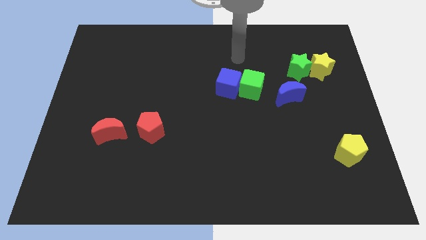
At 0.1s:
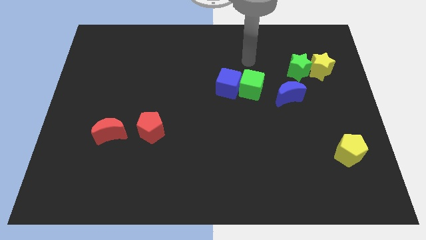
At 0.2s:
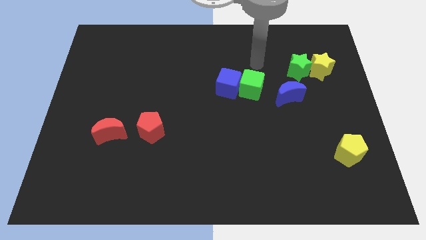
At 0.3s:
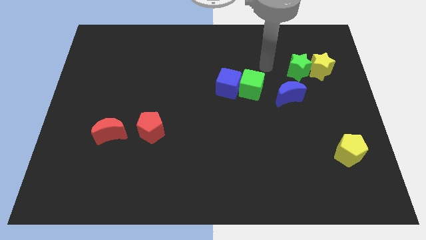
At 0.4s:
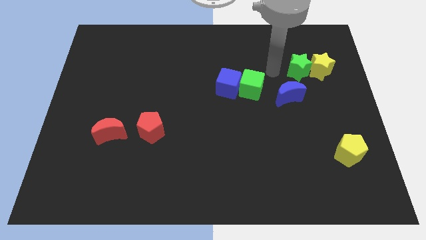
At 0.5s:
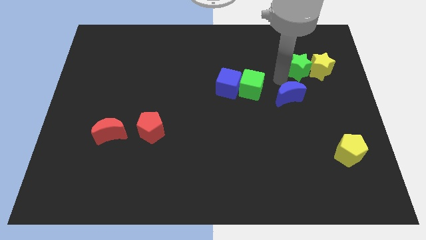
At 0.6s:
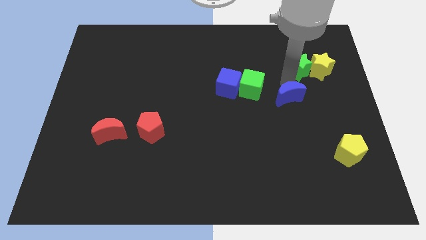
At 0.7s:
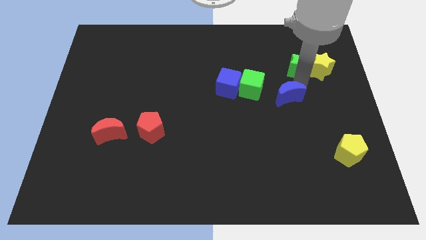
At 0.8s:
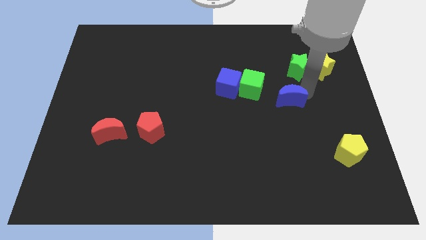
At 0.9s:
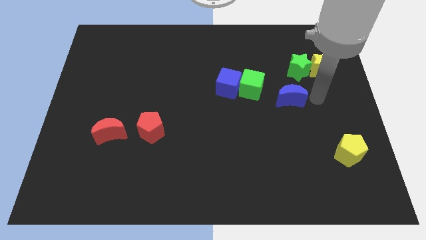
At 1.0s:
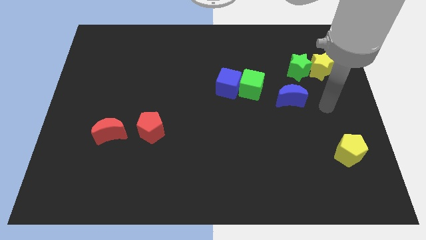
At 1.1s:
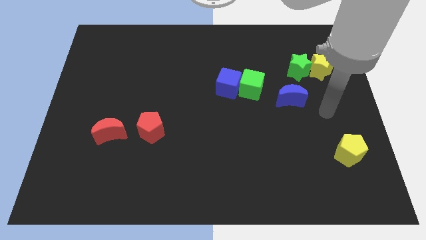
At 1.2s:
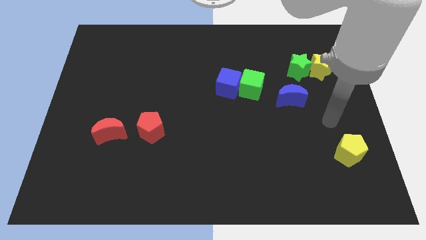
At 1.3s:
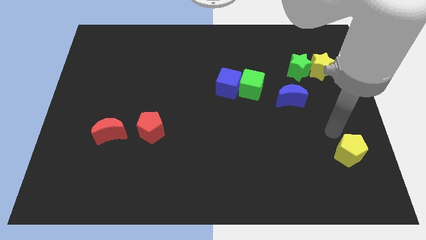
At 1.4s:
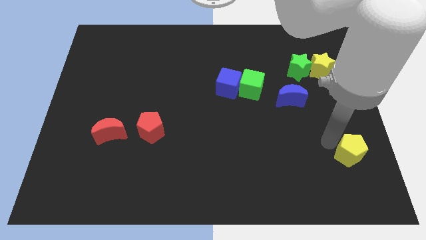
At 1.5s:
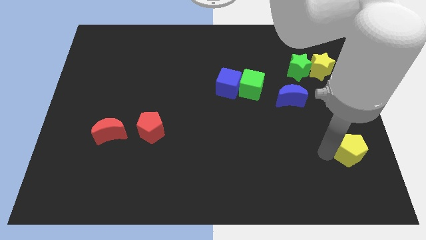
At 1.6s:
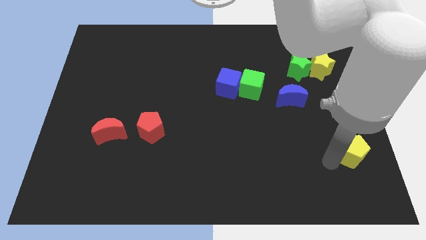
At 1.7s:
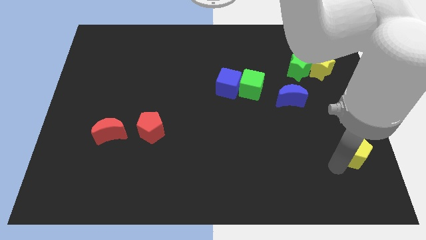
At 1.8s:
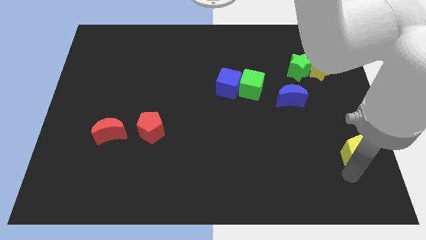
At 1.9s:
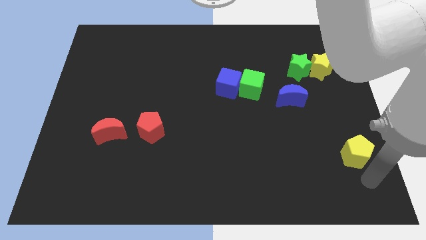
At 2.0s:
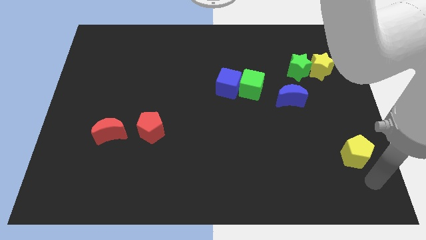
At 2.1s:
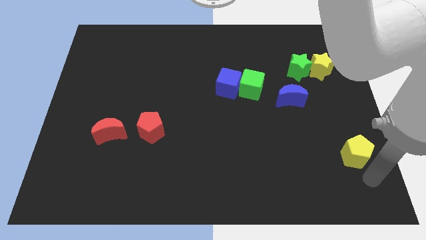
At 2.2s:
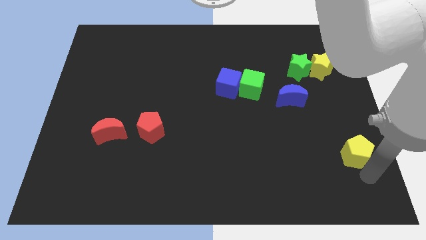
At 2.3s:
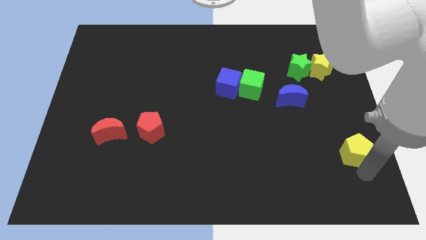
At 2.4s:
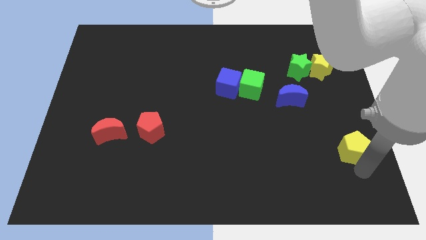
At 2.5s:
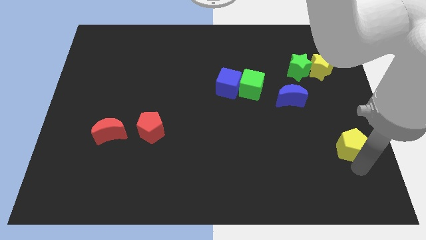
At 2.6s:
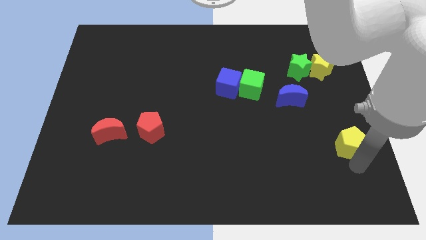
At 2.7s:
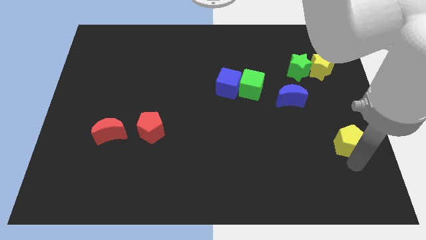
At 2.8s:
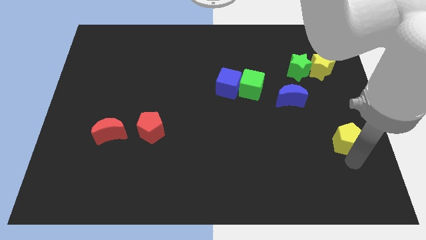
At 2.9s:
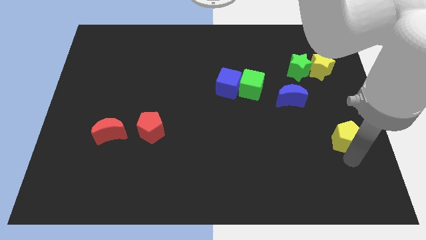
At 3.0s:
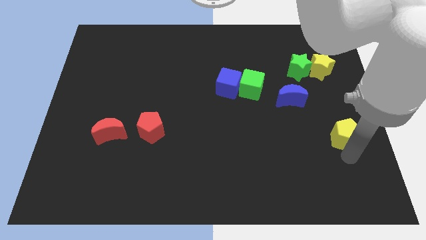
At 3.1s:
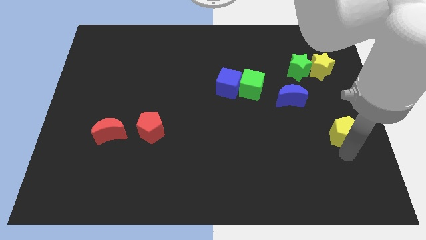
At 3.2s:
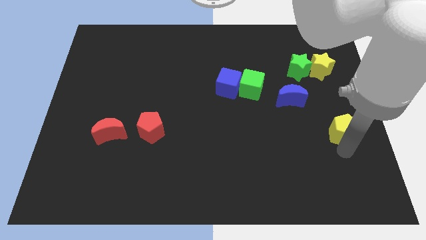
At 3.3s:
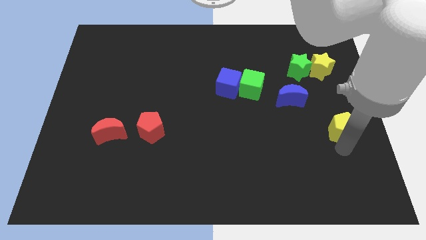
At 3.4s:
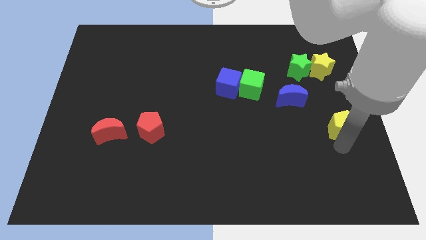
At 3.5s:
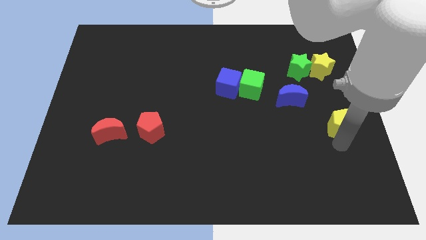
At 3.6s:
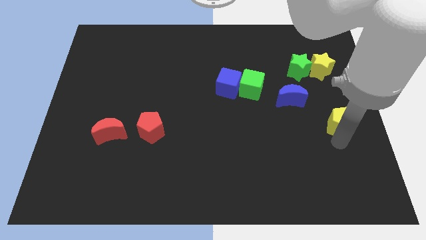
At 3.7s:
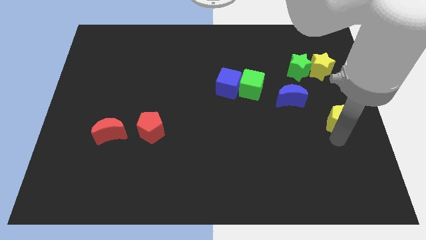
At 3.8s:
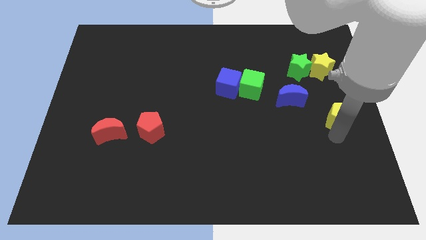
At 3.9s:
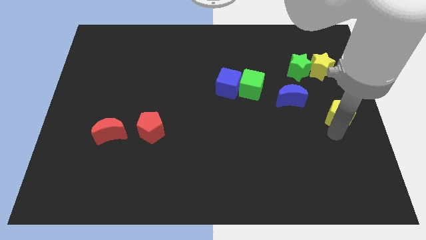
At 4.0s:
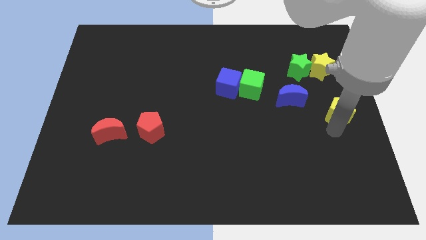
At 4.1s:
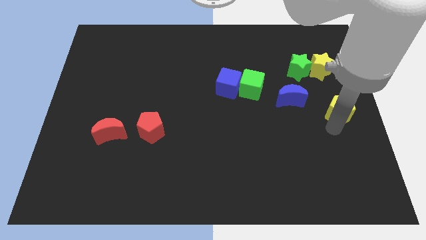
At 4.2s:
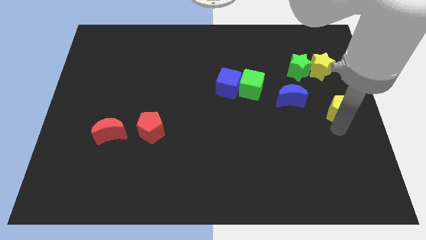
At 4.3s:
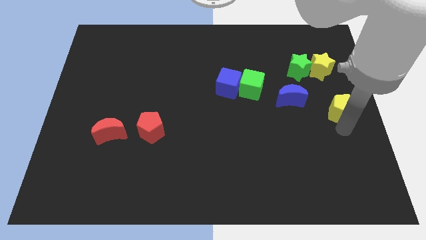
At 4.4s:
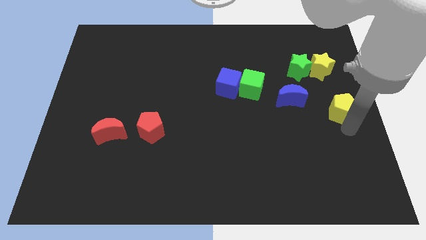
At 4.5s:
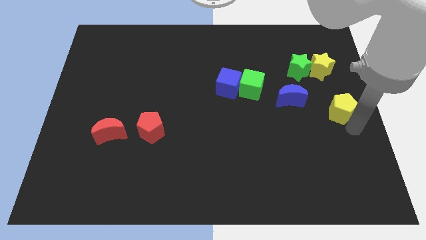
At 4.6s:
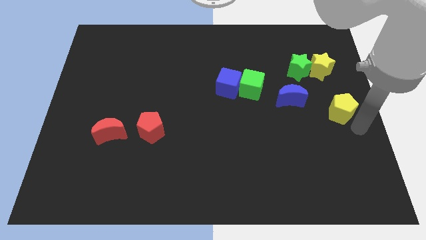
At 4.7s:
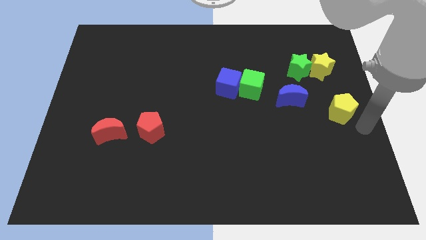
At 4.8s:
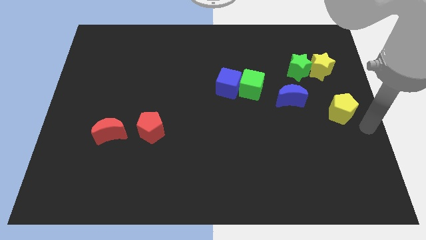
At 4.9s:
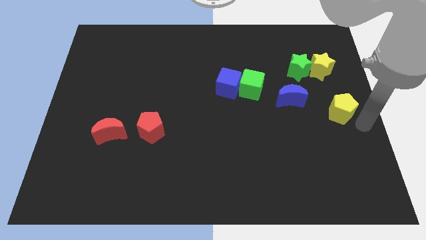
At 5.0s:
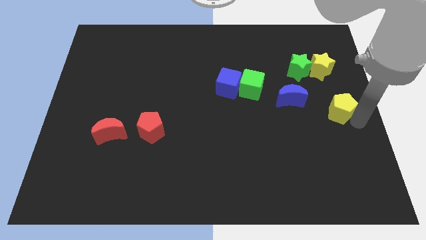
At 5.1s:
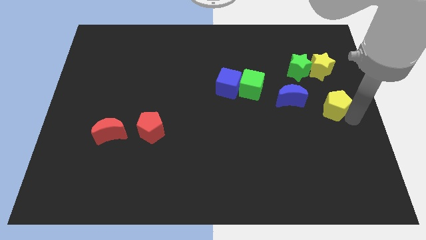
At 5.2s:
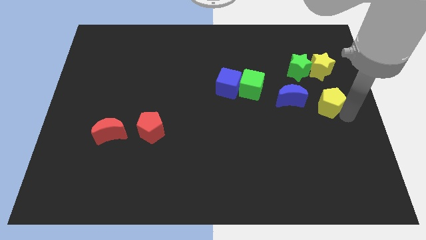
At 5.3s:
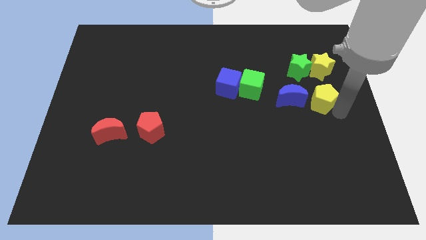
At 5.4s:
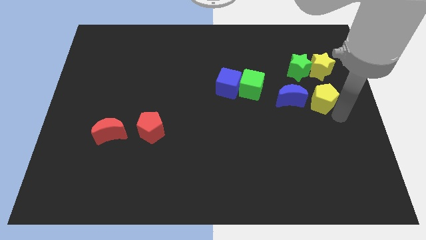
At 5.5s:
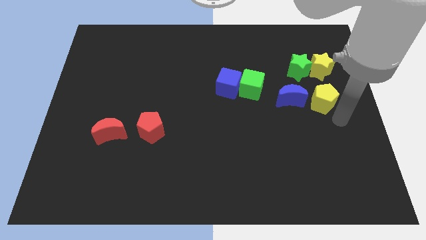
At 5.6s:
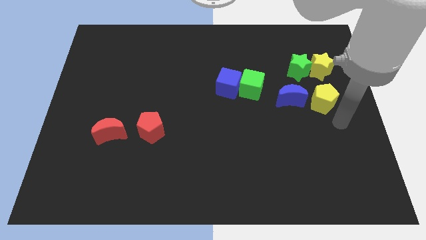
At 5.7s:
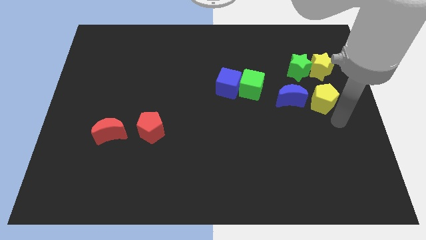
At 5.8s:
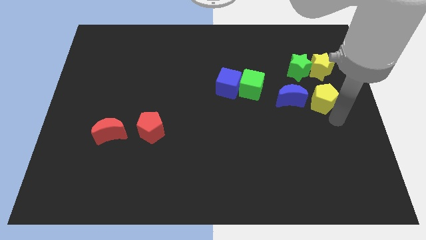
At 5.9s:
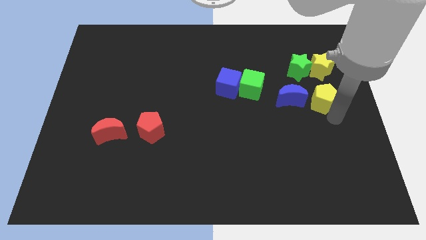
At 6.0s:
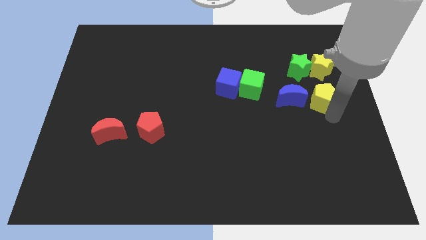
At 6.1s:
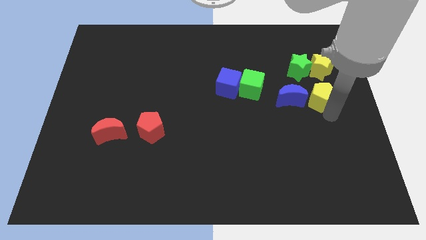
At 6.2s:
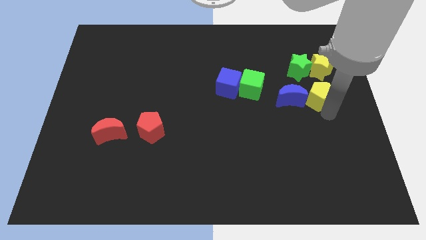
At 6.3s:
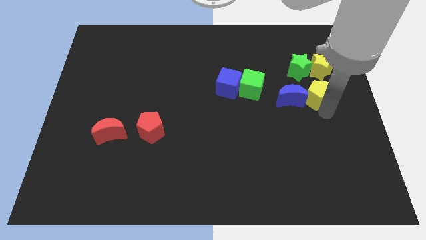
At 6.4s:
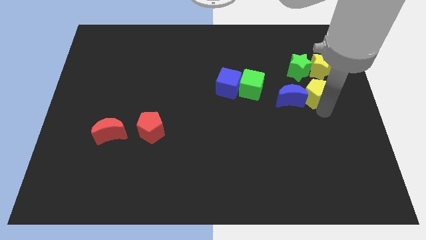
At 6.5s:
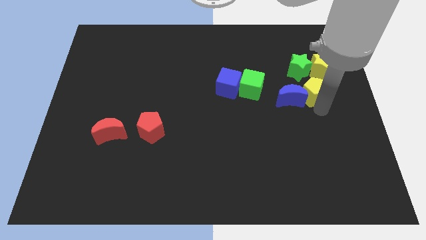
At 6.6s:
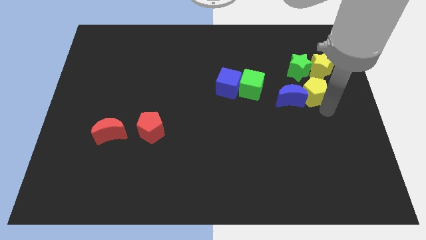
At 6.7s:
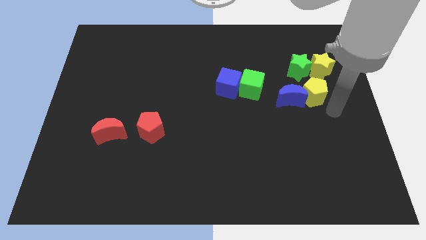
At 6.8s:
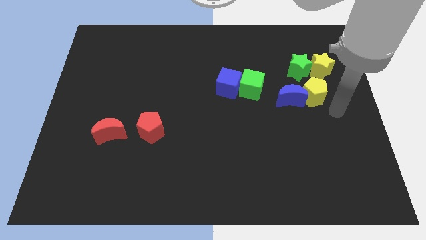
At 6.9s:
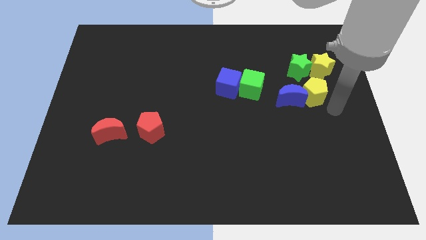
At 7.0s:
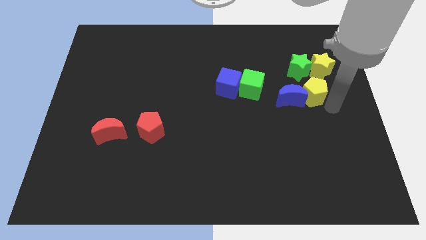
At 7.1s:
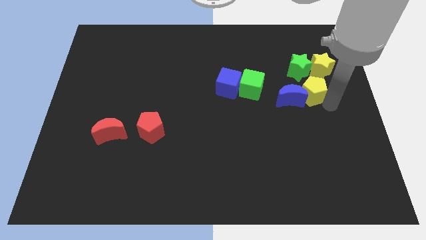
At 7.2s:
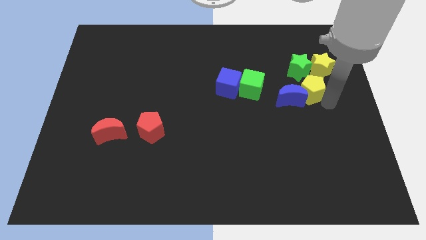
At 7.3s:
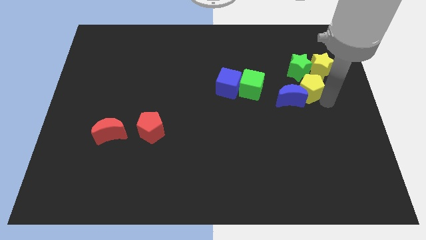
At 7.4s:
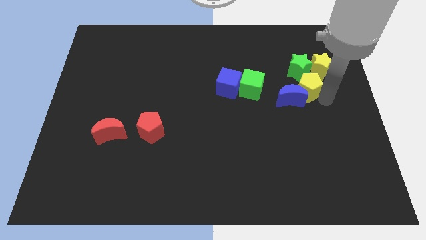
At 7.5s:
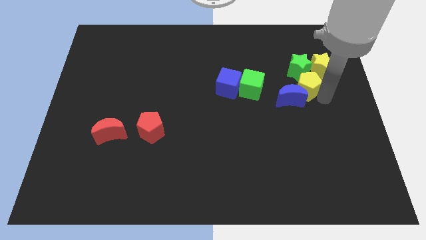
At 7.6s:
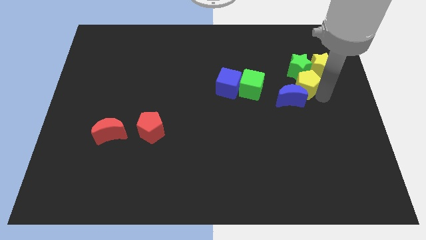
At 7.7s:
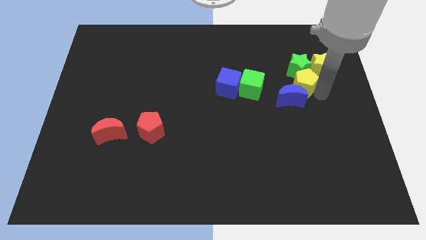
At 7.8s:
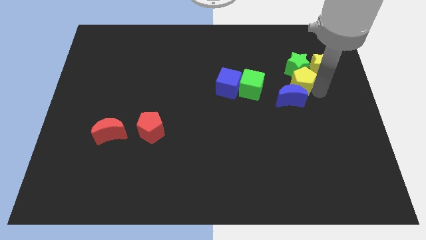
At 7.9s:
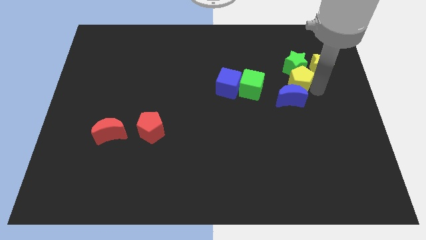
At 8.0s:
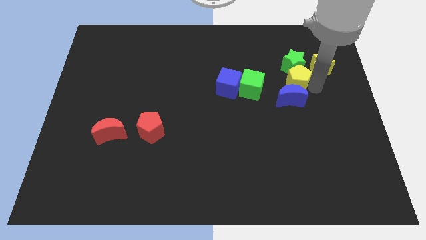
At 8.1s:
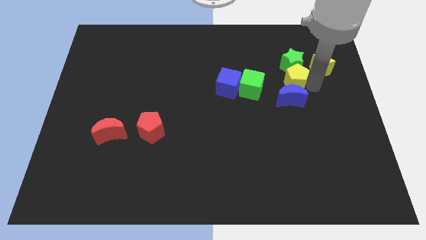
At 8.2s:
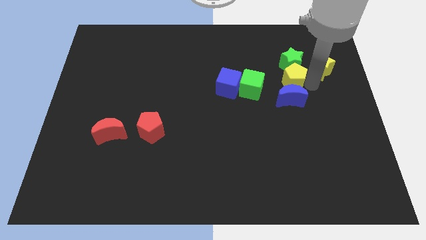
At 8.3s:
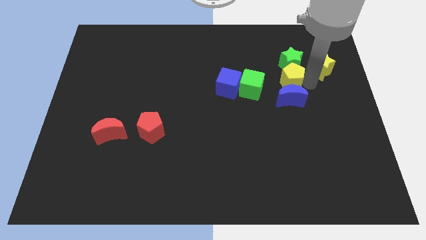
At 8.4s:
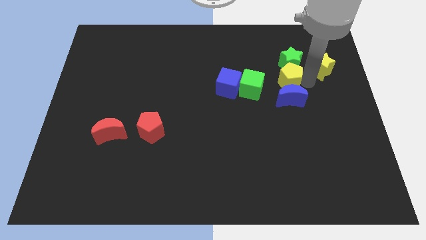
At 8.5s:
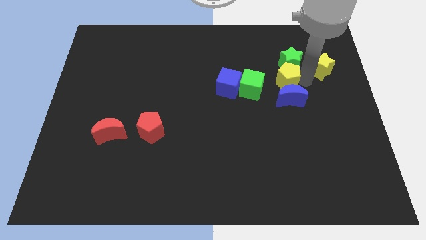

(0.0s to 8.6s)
push the yellow pentagon upwards and then left
